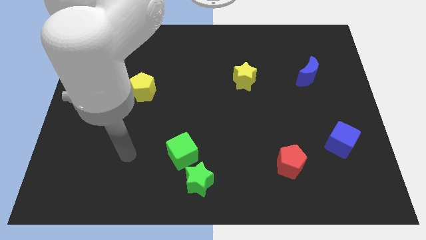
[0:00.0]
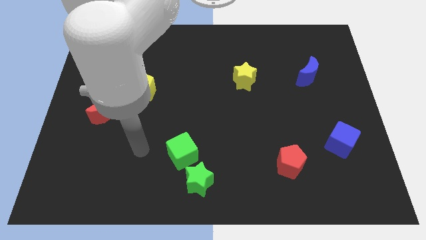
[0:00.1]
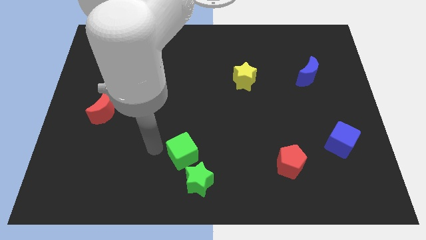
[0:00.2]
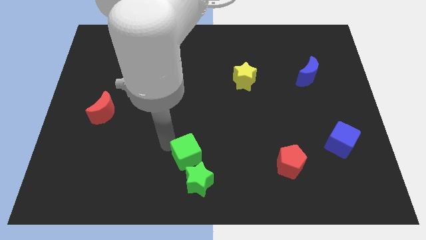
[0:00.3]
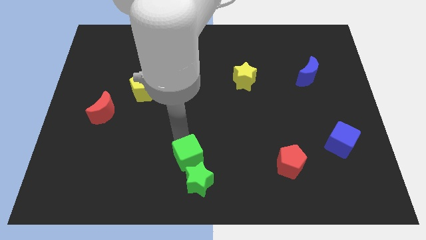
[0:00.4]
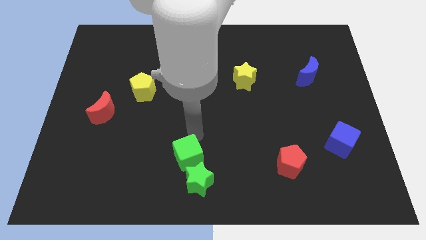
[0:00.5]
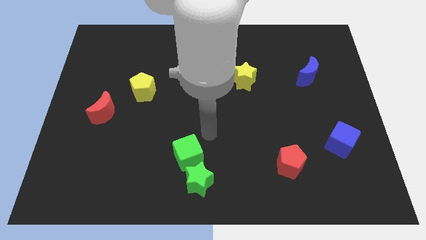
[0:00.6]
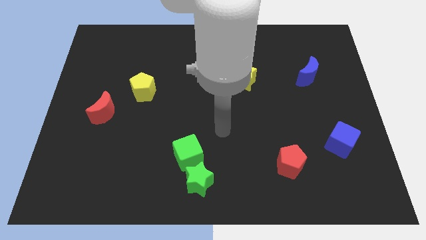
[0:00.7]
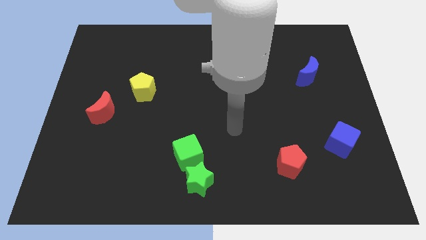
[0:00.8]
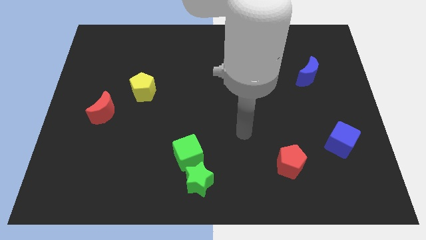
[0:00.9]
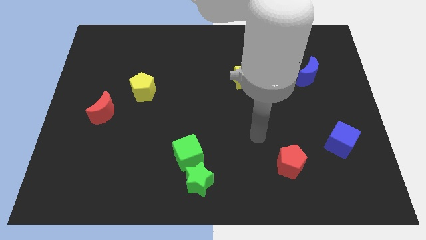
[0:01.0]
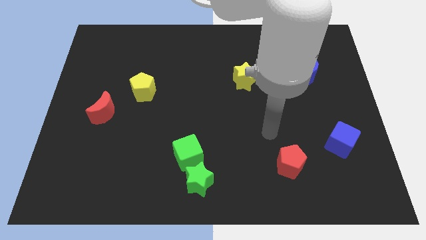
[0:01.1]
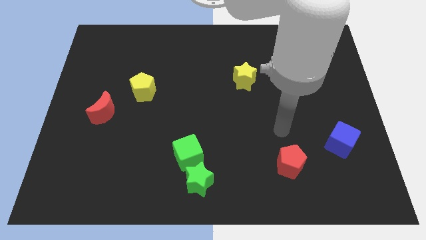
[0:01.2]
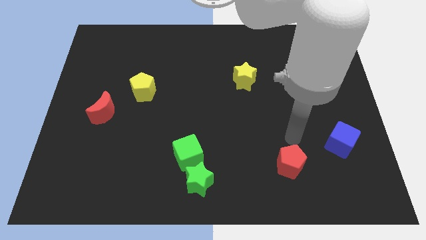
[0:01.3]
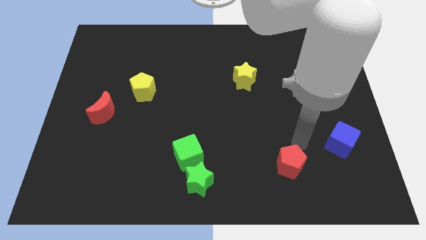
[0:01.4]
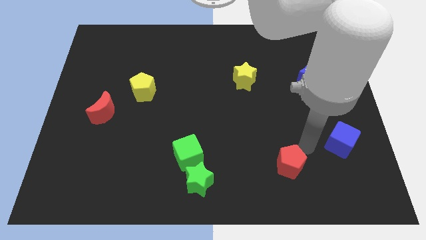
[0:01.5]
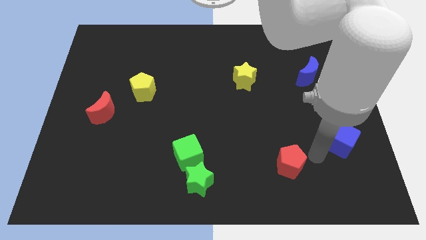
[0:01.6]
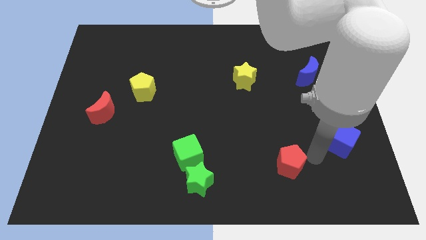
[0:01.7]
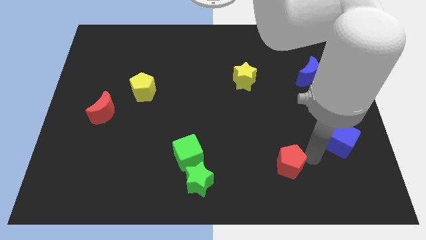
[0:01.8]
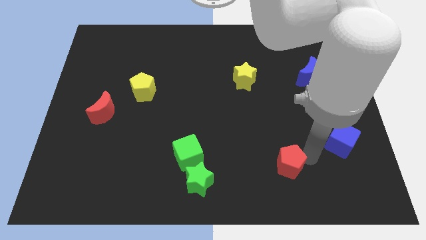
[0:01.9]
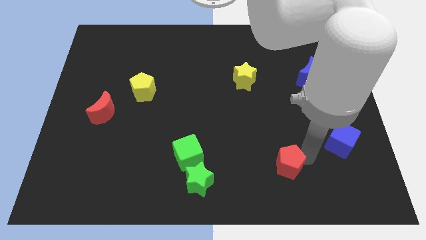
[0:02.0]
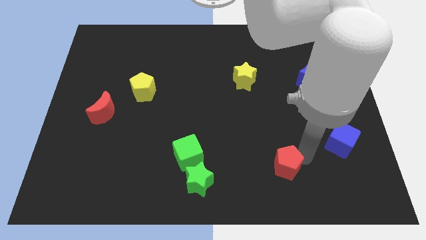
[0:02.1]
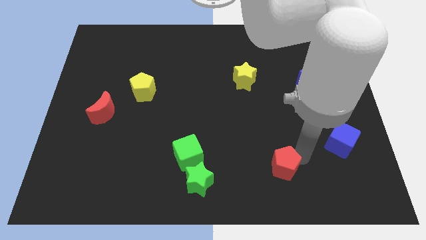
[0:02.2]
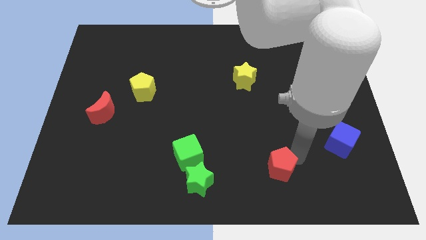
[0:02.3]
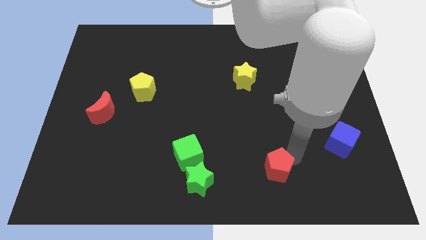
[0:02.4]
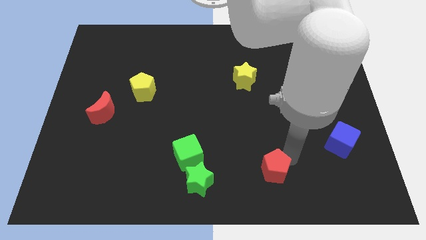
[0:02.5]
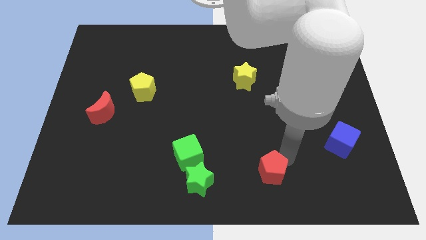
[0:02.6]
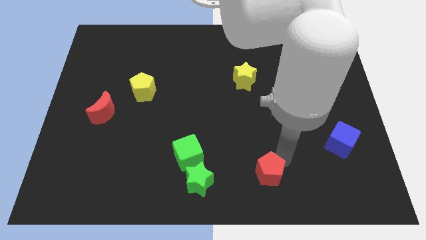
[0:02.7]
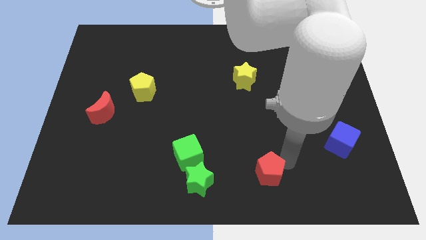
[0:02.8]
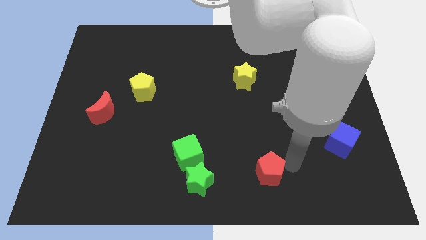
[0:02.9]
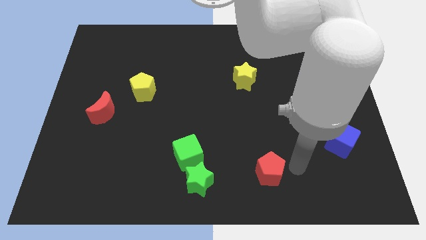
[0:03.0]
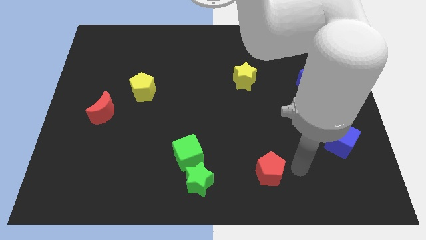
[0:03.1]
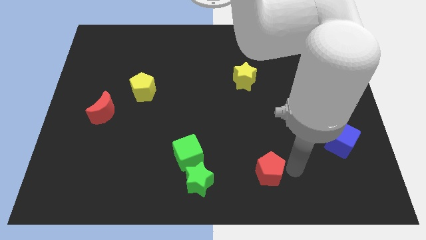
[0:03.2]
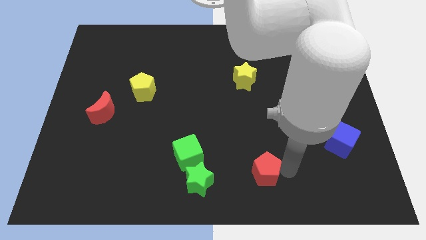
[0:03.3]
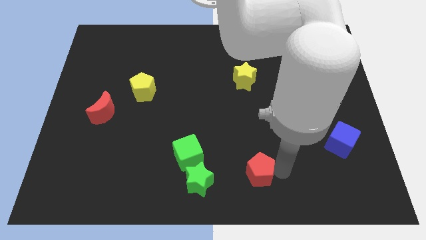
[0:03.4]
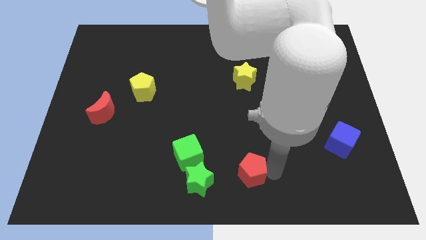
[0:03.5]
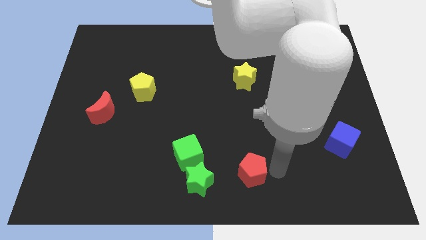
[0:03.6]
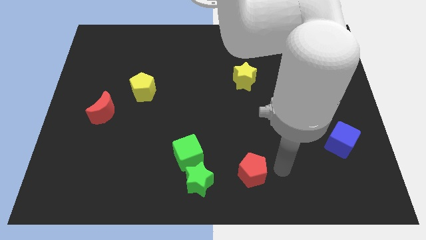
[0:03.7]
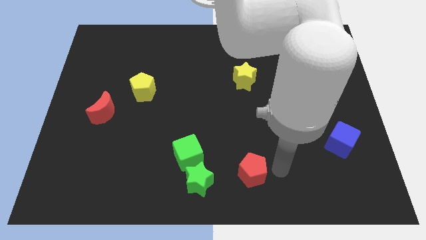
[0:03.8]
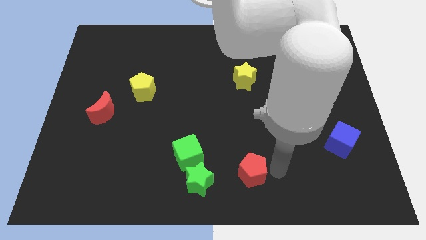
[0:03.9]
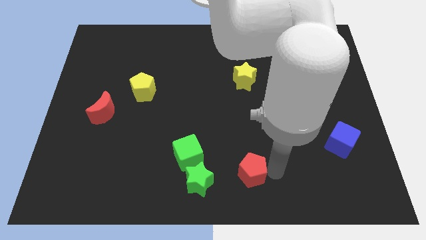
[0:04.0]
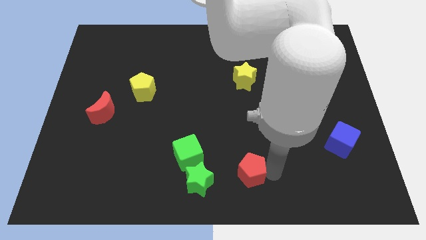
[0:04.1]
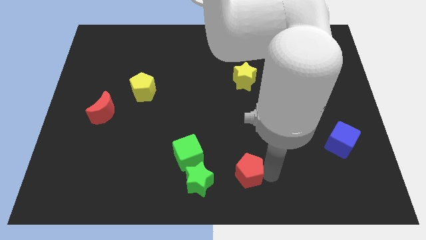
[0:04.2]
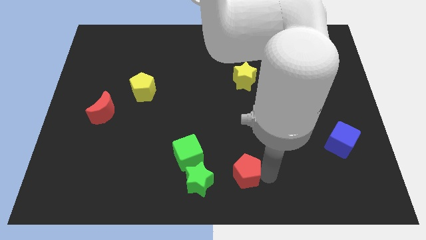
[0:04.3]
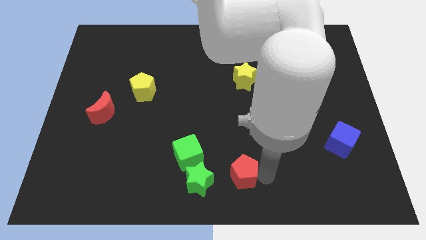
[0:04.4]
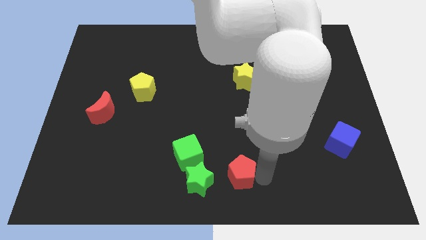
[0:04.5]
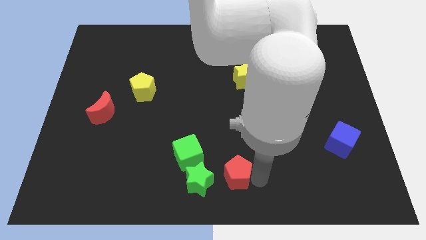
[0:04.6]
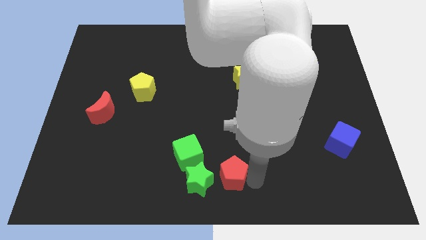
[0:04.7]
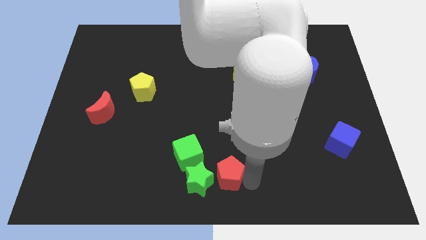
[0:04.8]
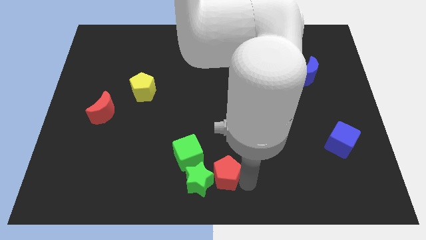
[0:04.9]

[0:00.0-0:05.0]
move the red pentagon to the green star

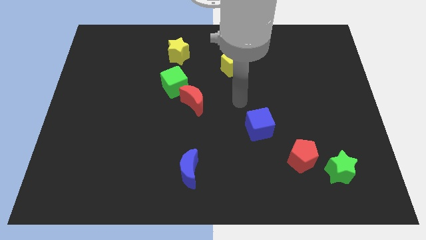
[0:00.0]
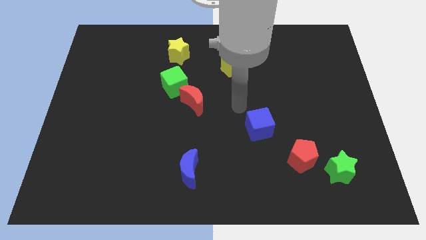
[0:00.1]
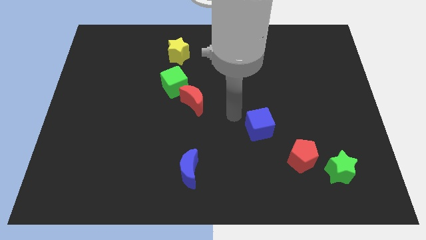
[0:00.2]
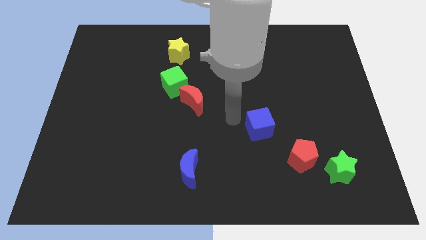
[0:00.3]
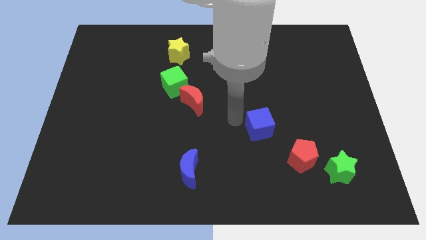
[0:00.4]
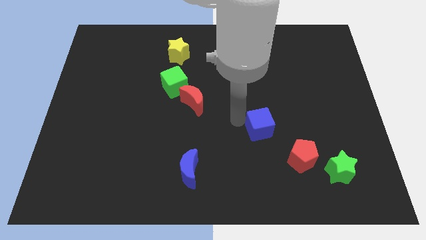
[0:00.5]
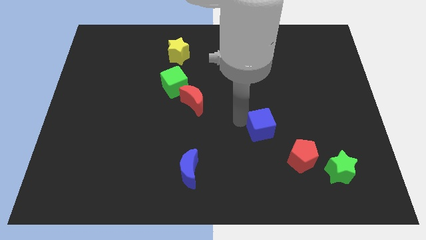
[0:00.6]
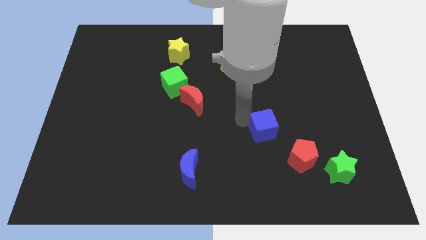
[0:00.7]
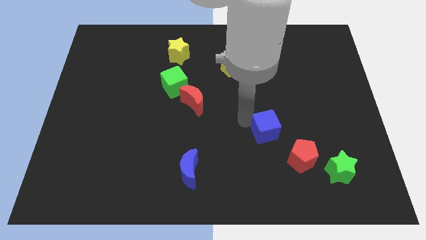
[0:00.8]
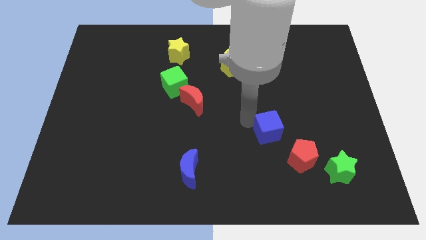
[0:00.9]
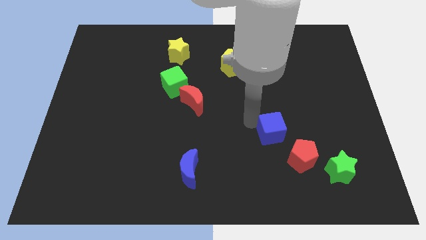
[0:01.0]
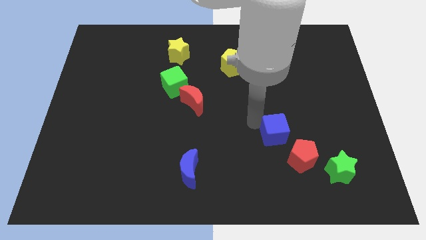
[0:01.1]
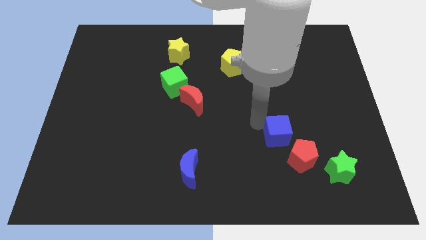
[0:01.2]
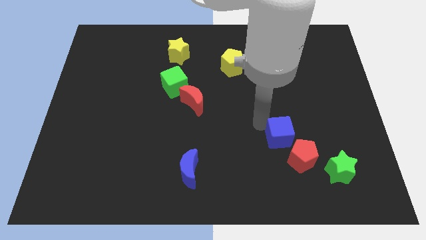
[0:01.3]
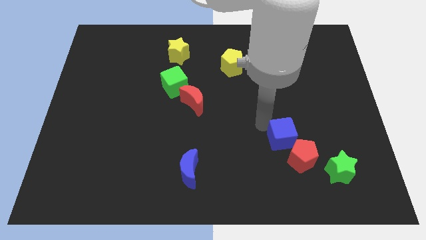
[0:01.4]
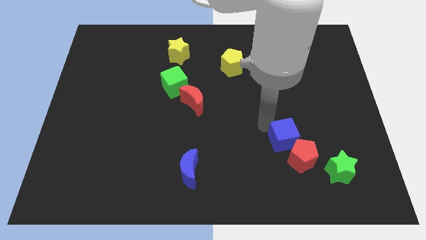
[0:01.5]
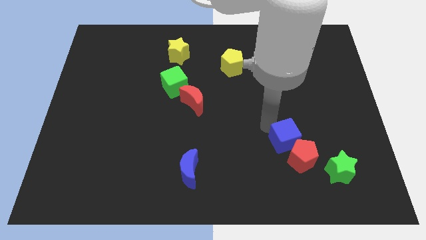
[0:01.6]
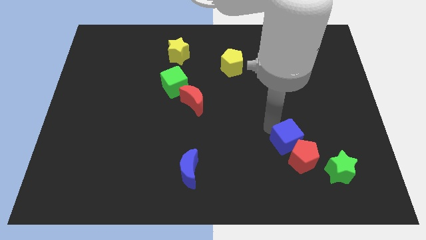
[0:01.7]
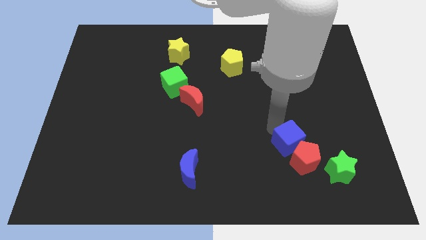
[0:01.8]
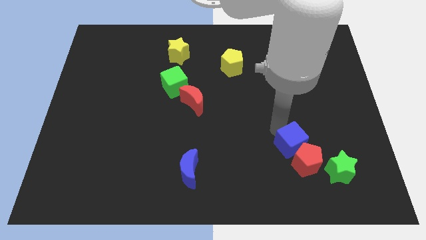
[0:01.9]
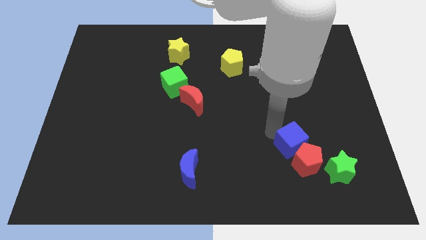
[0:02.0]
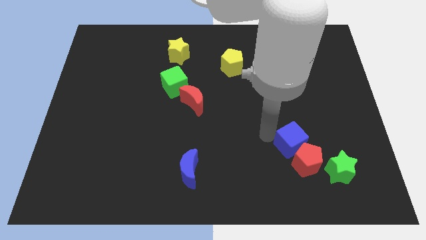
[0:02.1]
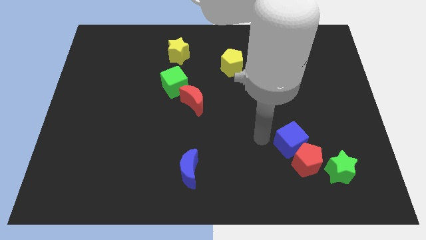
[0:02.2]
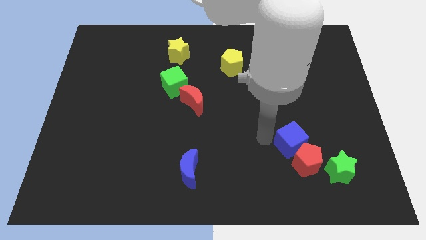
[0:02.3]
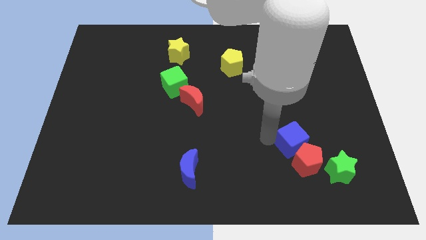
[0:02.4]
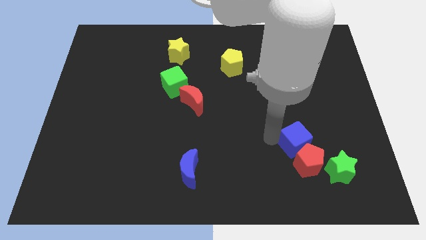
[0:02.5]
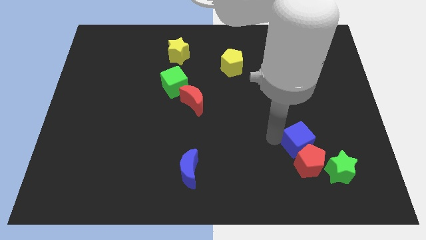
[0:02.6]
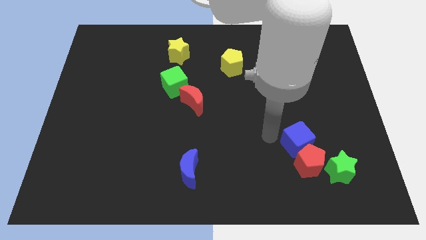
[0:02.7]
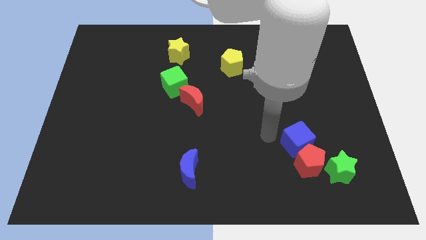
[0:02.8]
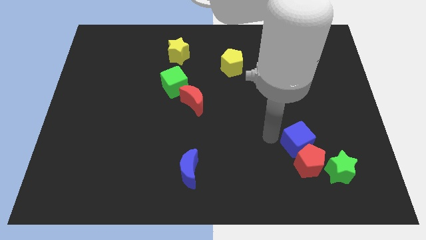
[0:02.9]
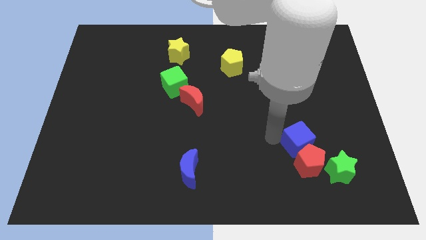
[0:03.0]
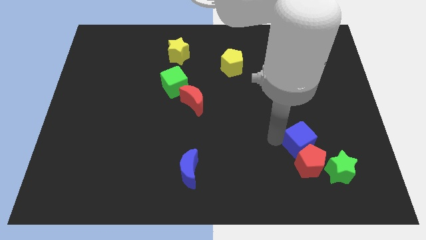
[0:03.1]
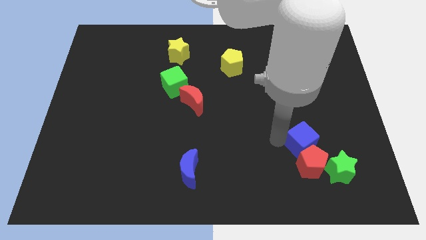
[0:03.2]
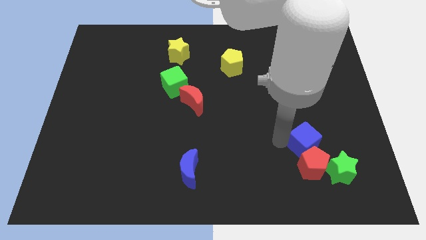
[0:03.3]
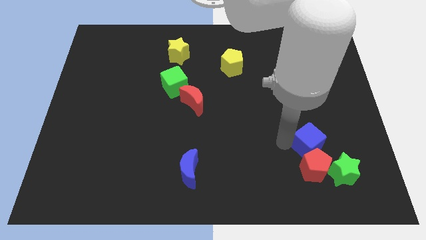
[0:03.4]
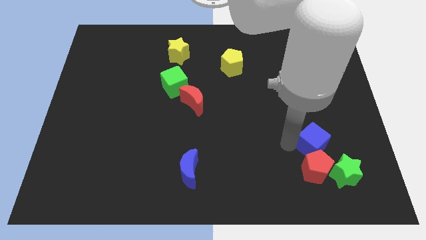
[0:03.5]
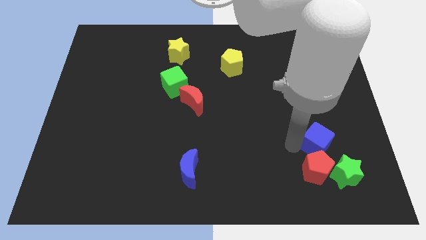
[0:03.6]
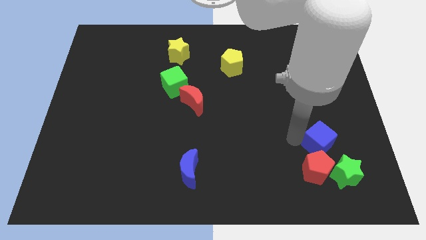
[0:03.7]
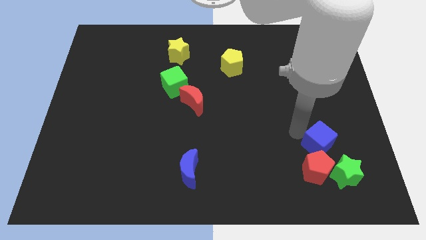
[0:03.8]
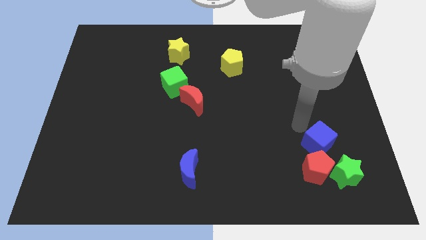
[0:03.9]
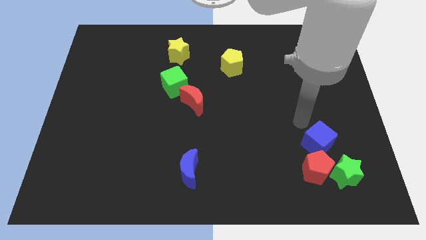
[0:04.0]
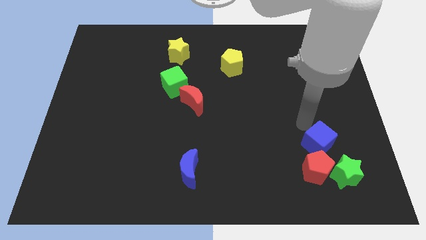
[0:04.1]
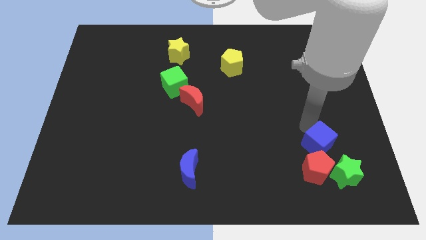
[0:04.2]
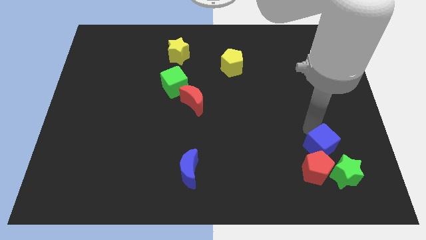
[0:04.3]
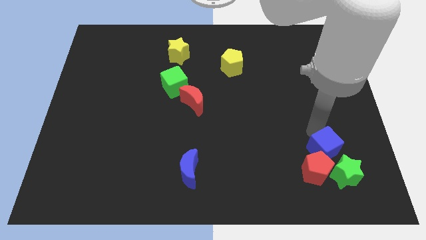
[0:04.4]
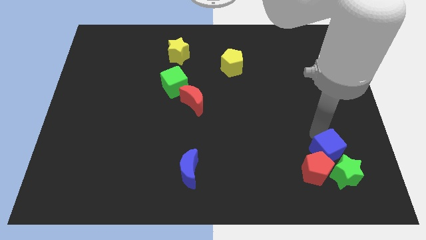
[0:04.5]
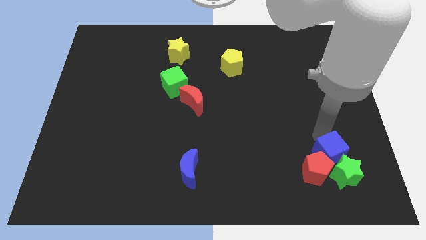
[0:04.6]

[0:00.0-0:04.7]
move the blue cube towards the green star
